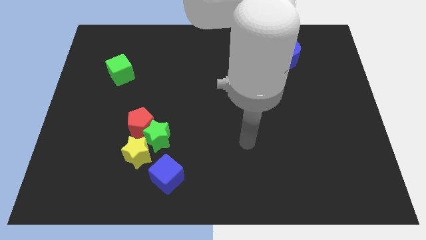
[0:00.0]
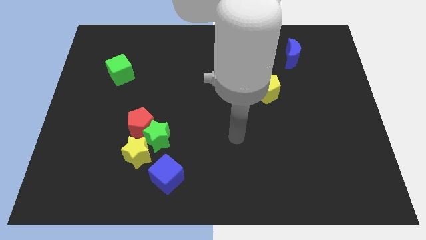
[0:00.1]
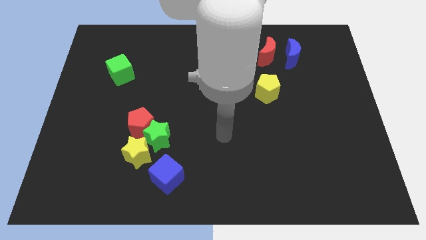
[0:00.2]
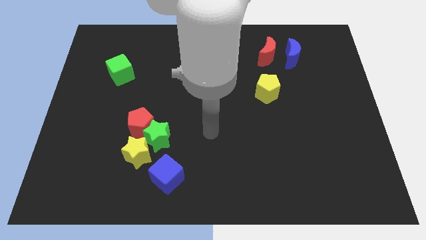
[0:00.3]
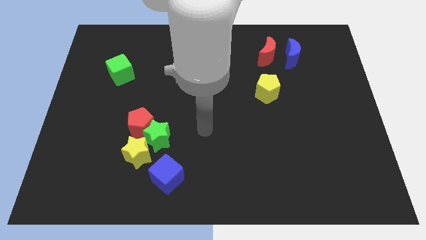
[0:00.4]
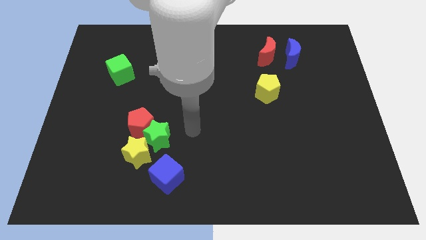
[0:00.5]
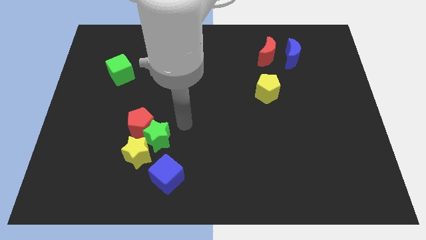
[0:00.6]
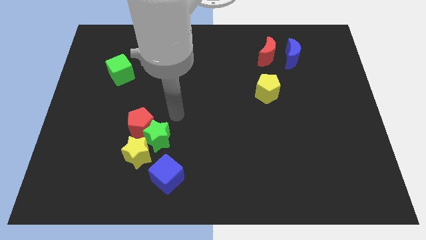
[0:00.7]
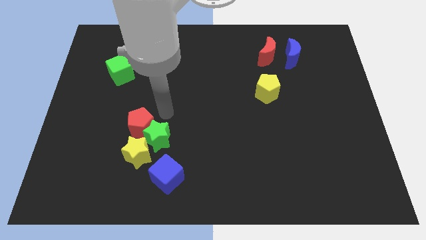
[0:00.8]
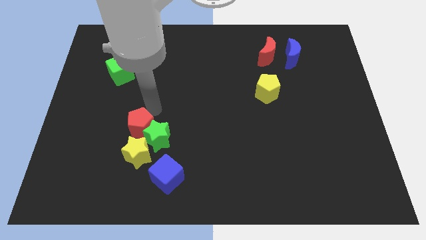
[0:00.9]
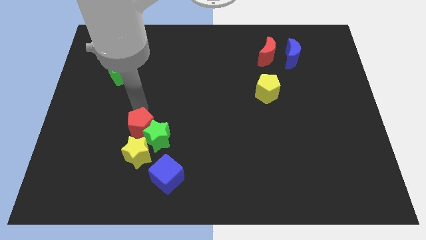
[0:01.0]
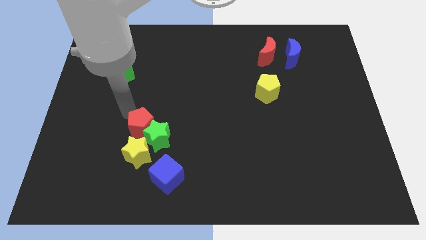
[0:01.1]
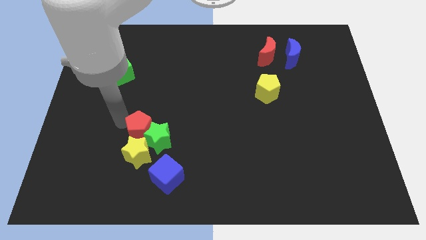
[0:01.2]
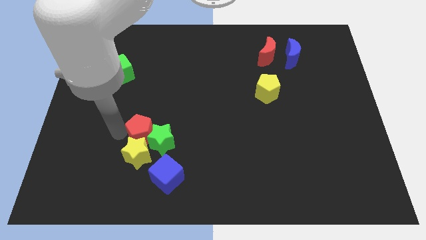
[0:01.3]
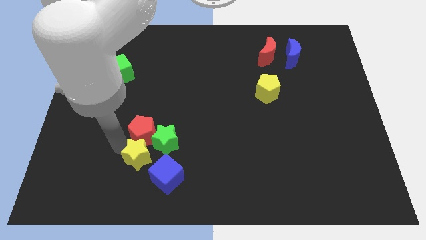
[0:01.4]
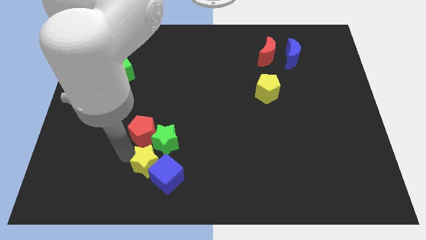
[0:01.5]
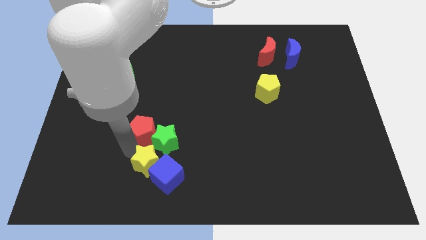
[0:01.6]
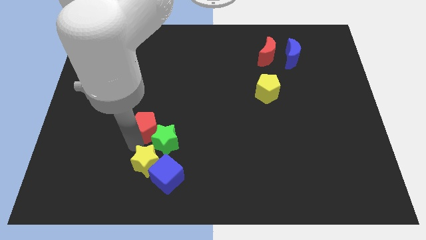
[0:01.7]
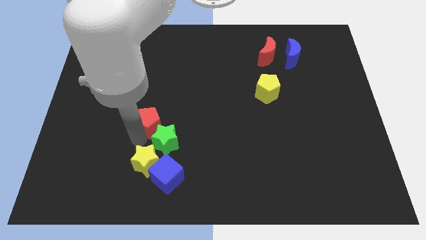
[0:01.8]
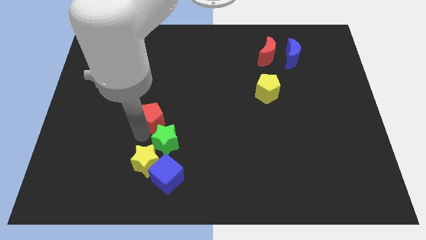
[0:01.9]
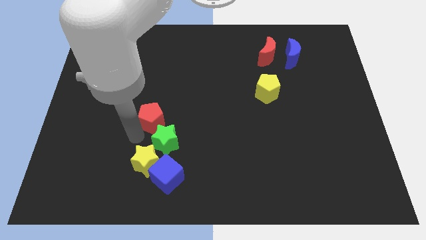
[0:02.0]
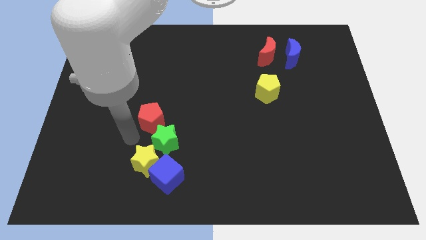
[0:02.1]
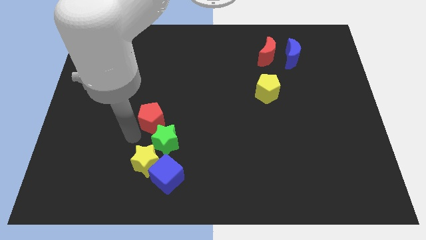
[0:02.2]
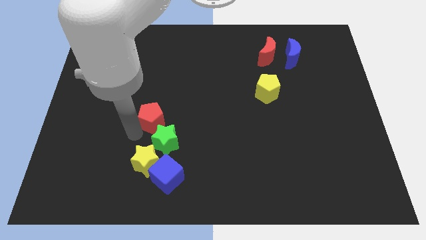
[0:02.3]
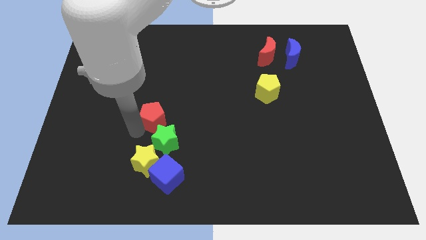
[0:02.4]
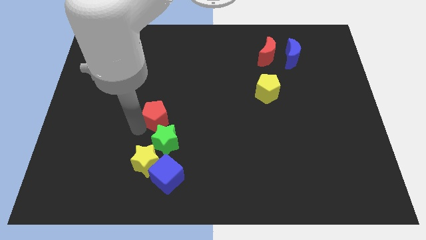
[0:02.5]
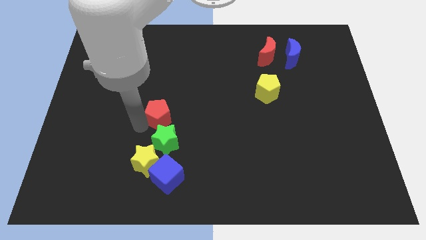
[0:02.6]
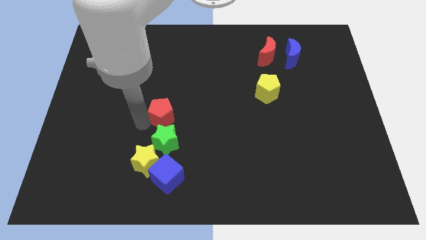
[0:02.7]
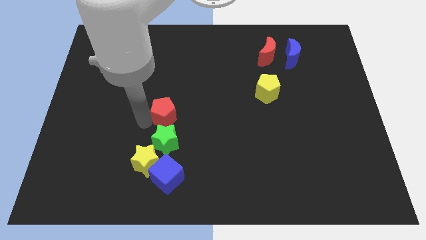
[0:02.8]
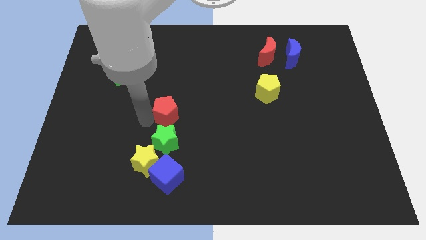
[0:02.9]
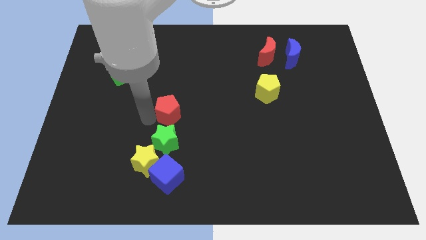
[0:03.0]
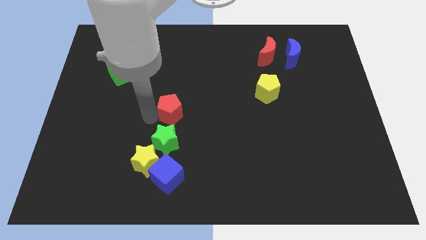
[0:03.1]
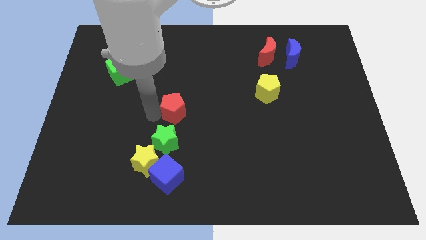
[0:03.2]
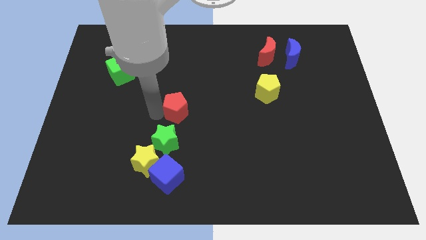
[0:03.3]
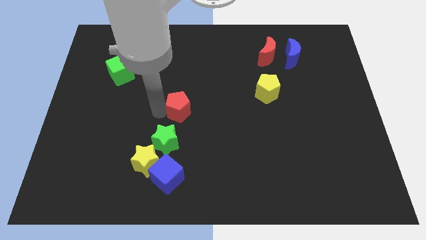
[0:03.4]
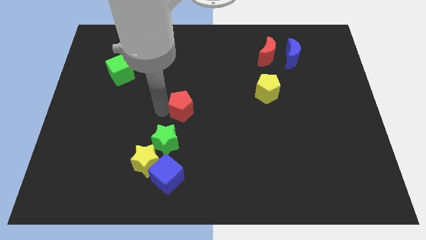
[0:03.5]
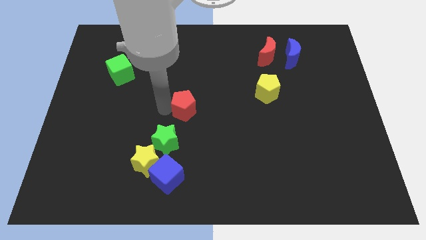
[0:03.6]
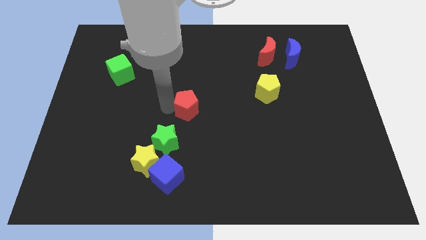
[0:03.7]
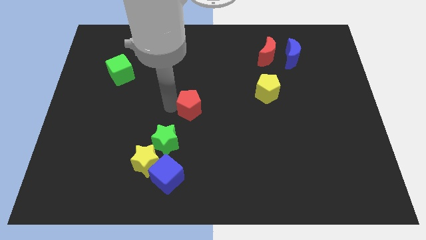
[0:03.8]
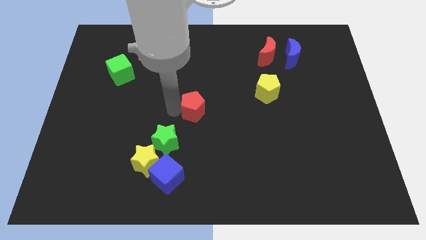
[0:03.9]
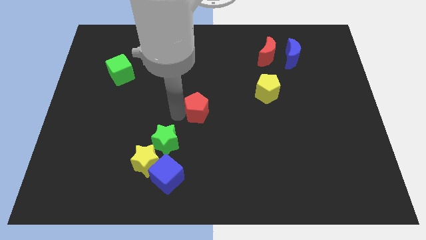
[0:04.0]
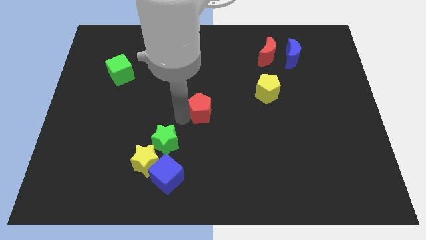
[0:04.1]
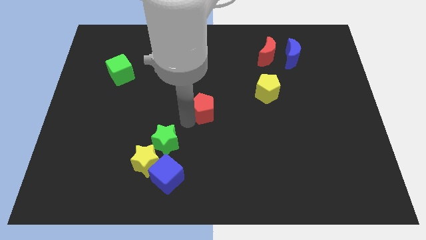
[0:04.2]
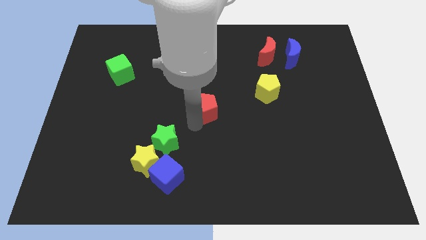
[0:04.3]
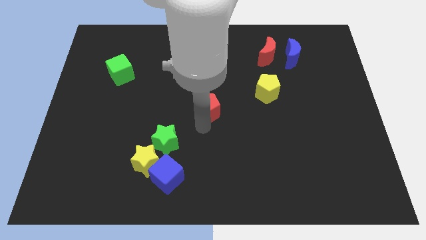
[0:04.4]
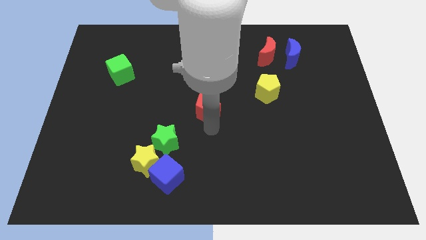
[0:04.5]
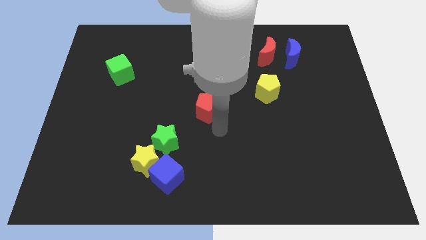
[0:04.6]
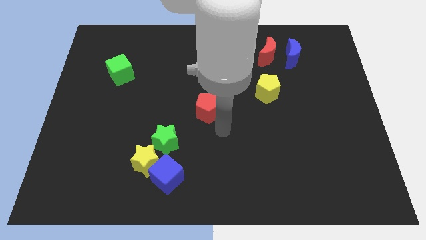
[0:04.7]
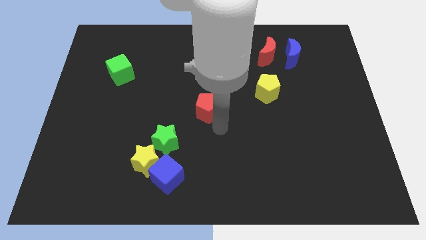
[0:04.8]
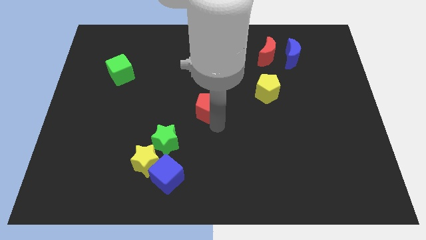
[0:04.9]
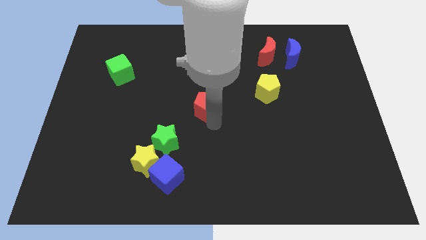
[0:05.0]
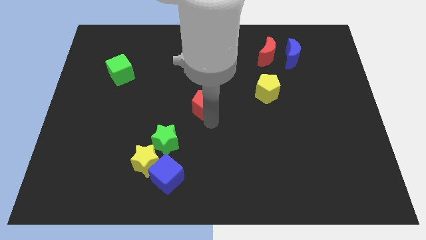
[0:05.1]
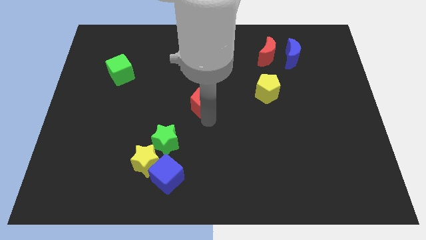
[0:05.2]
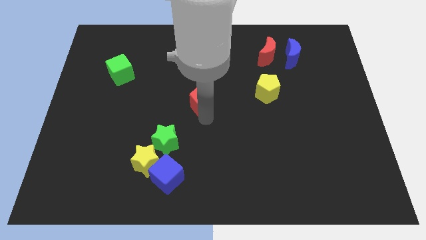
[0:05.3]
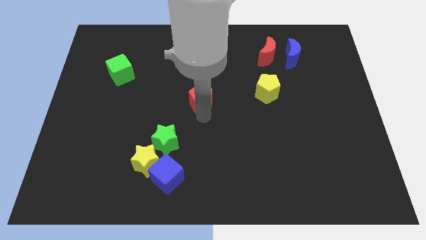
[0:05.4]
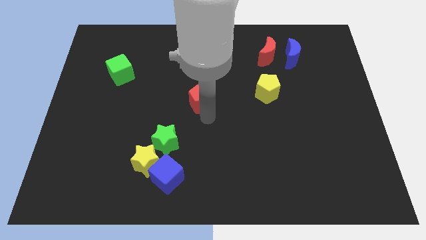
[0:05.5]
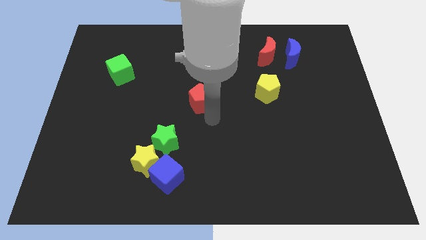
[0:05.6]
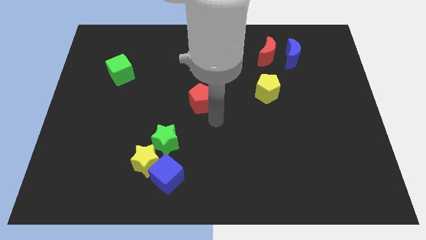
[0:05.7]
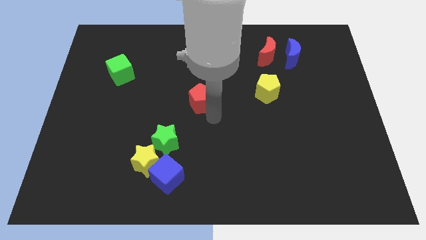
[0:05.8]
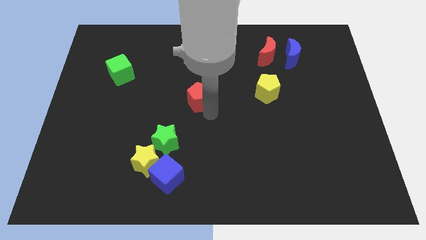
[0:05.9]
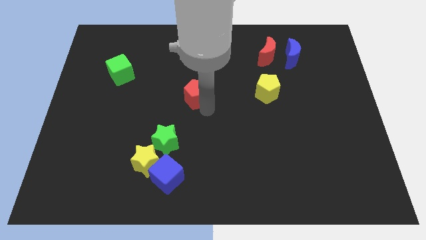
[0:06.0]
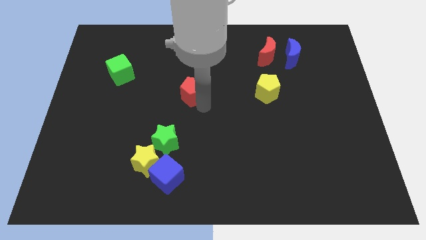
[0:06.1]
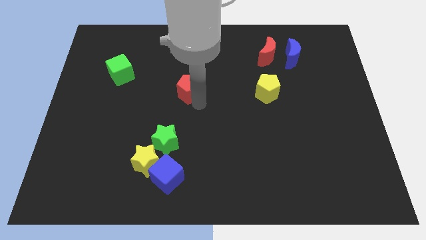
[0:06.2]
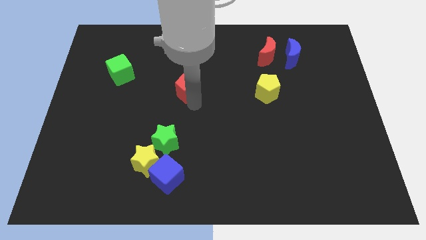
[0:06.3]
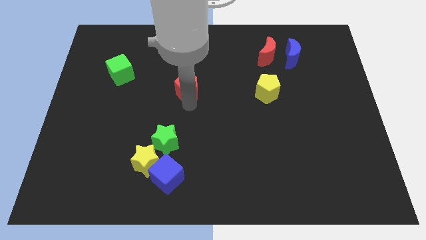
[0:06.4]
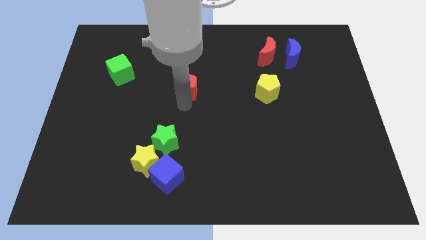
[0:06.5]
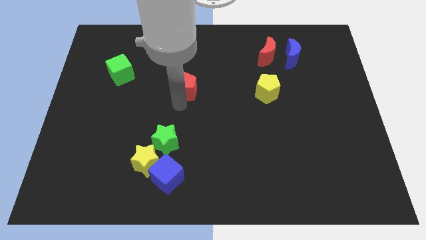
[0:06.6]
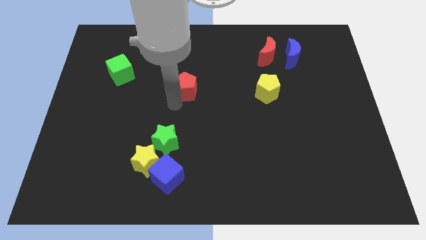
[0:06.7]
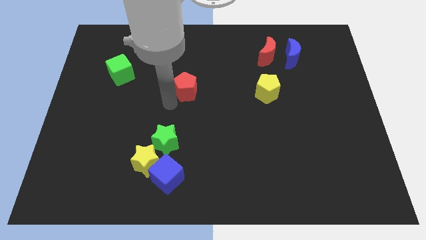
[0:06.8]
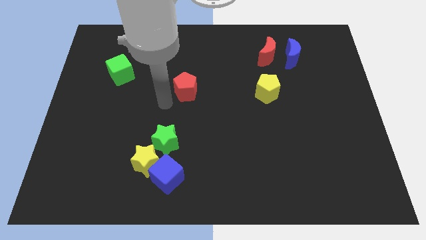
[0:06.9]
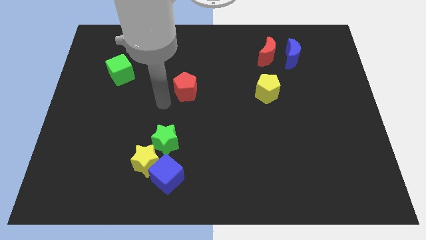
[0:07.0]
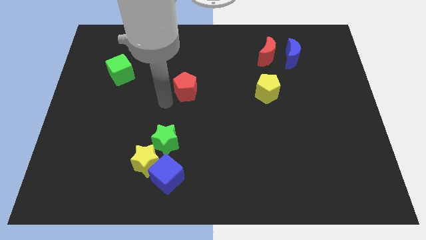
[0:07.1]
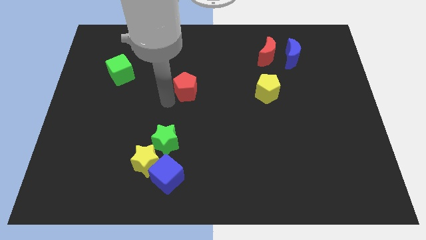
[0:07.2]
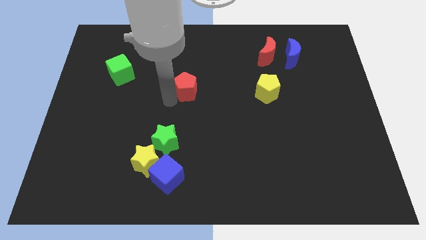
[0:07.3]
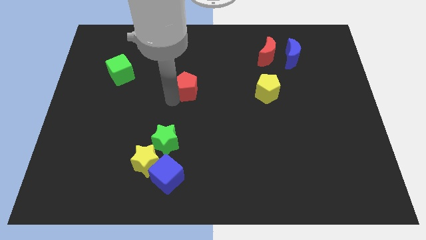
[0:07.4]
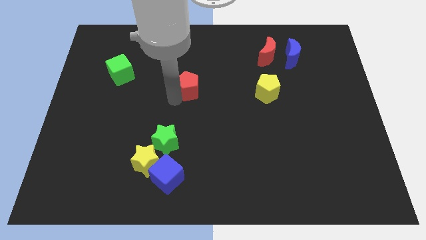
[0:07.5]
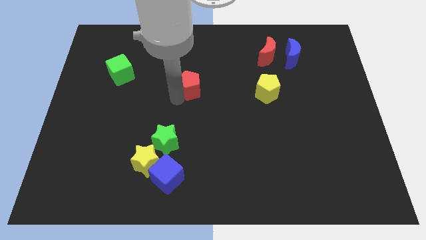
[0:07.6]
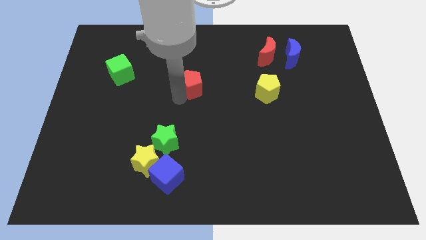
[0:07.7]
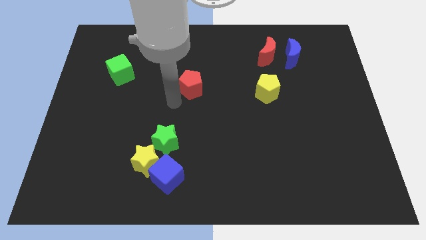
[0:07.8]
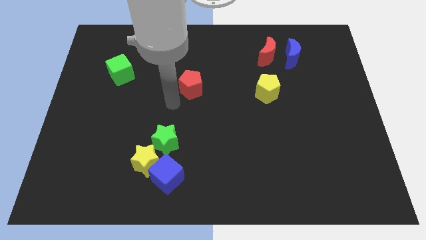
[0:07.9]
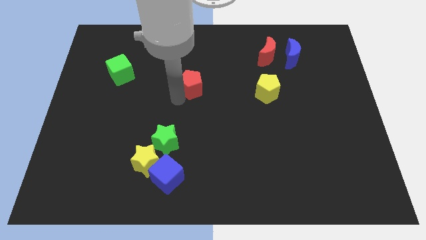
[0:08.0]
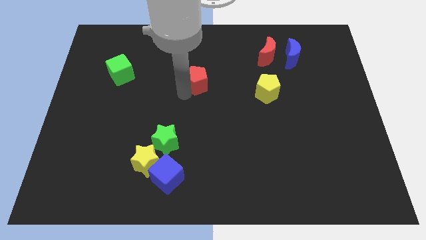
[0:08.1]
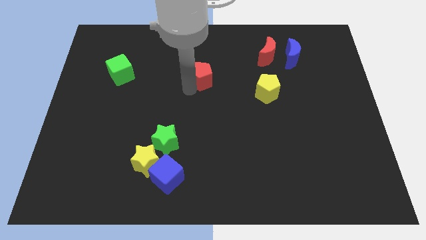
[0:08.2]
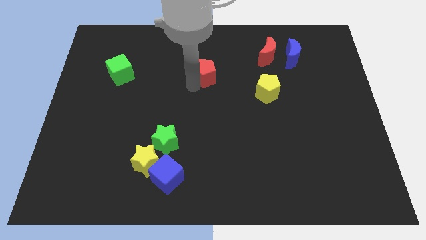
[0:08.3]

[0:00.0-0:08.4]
slide the red pentagon diagonally up and right
